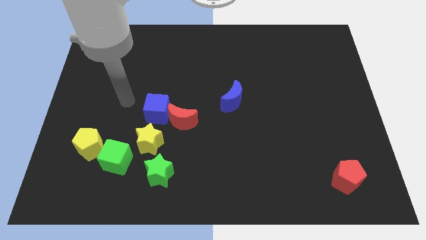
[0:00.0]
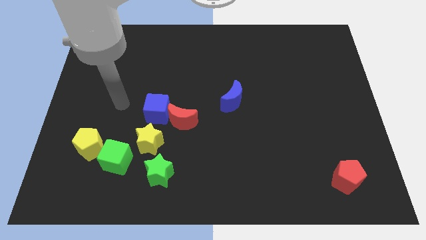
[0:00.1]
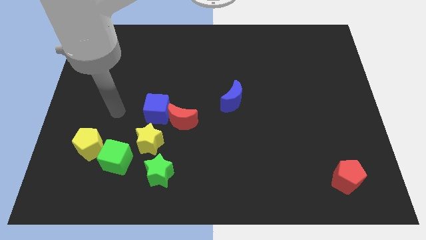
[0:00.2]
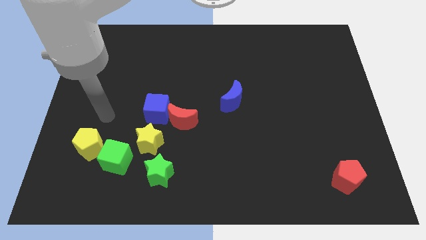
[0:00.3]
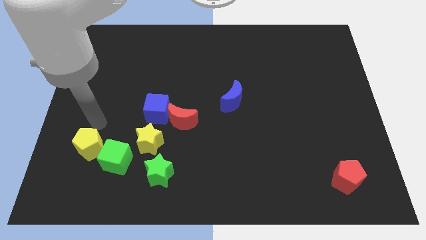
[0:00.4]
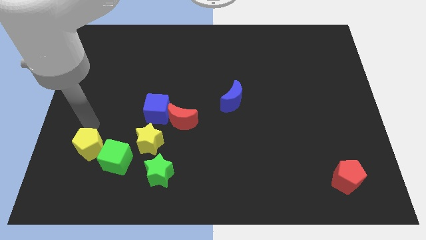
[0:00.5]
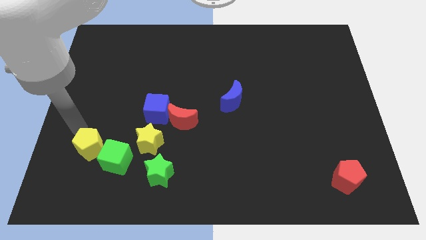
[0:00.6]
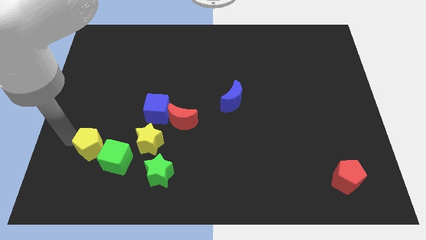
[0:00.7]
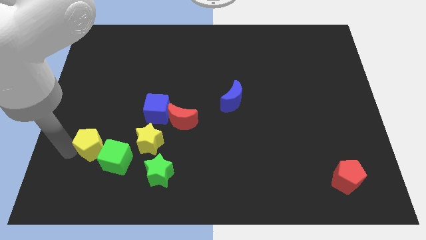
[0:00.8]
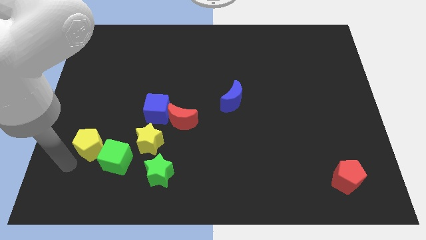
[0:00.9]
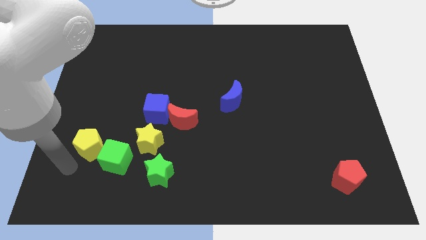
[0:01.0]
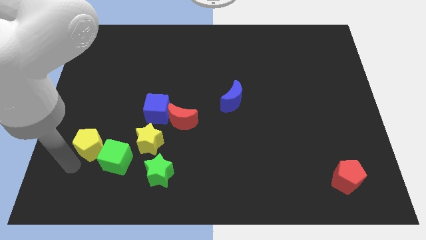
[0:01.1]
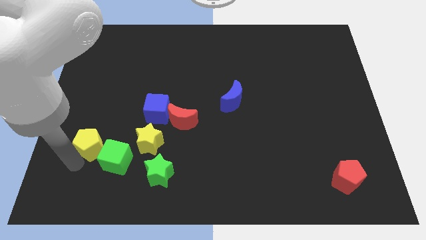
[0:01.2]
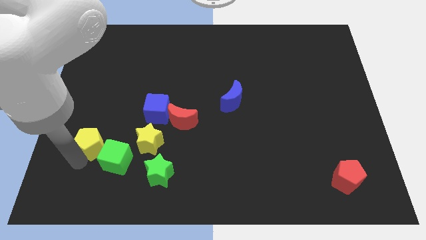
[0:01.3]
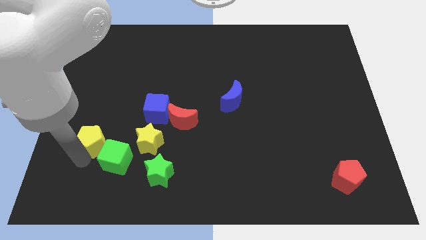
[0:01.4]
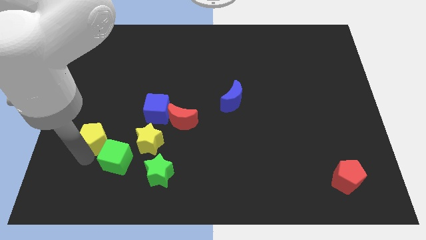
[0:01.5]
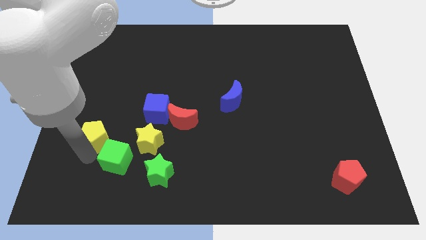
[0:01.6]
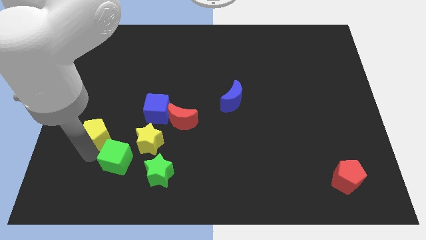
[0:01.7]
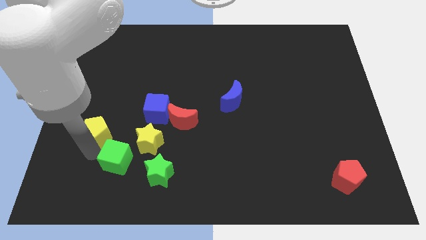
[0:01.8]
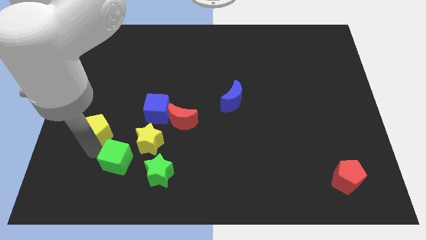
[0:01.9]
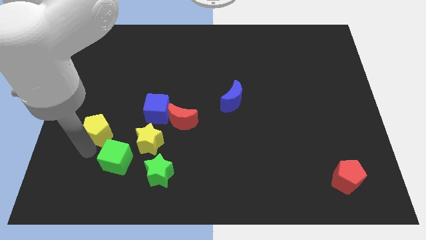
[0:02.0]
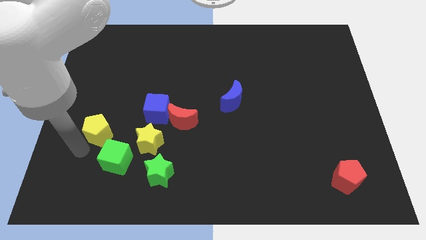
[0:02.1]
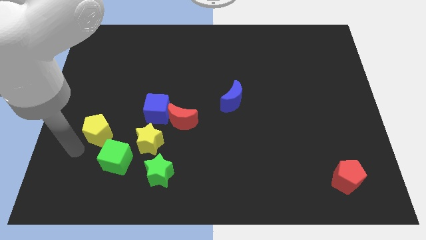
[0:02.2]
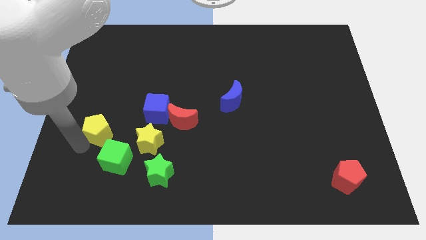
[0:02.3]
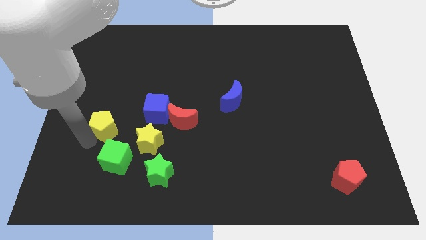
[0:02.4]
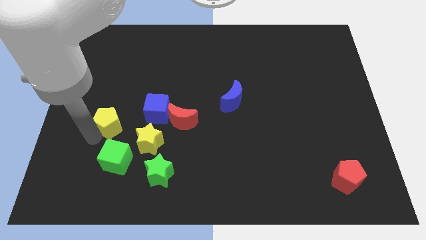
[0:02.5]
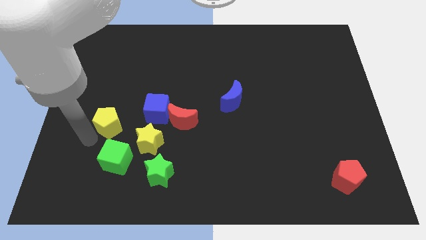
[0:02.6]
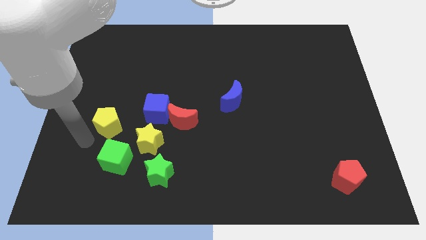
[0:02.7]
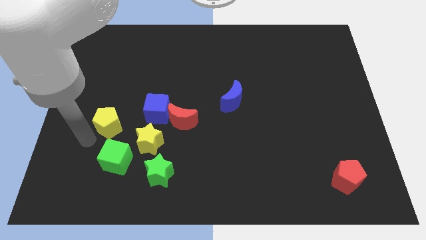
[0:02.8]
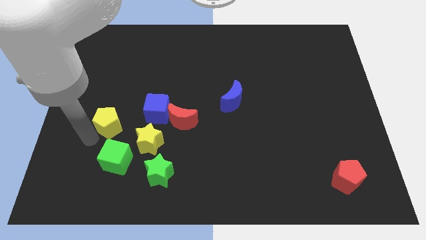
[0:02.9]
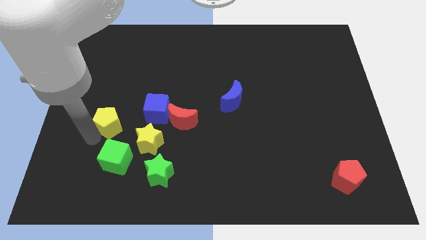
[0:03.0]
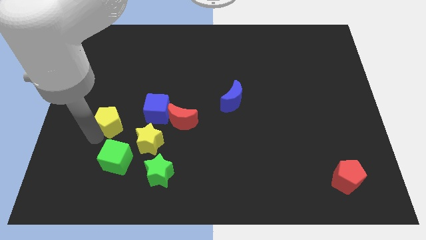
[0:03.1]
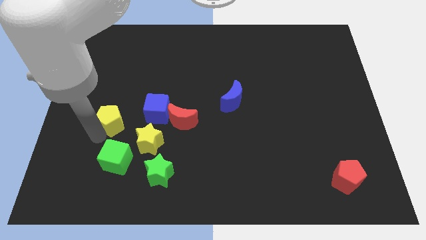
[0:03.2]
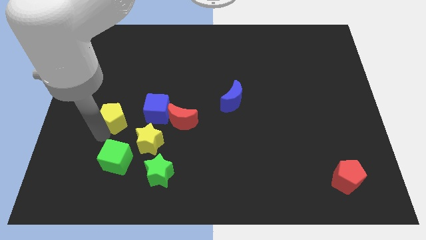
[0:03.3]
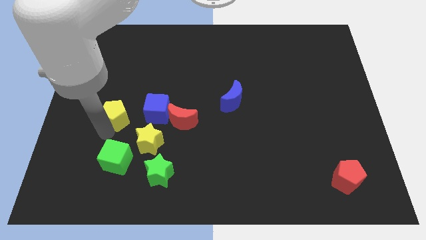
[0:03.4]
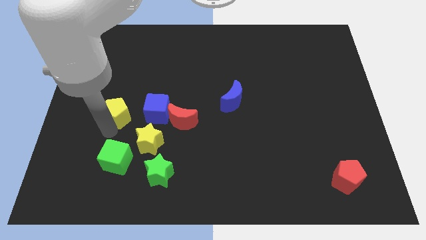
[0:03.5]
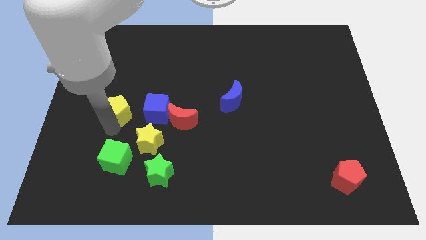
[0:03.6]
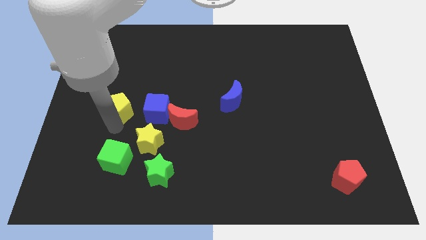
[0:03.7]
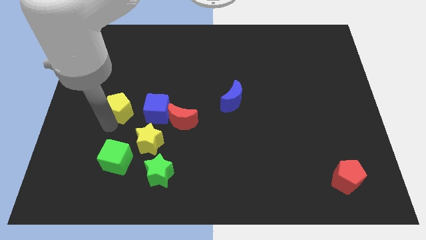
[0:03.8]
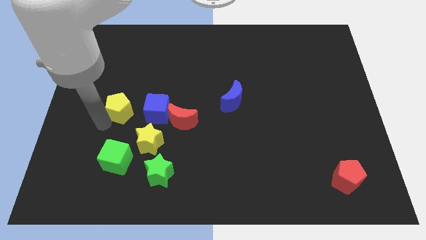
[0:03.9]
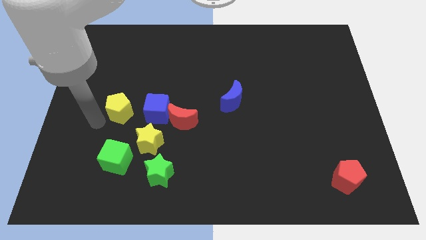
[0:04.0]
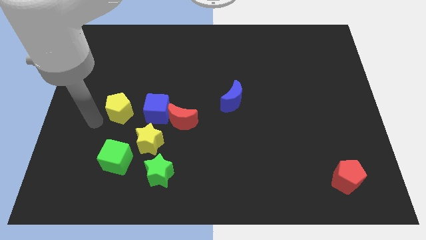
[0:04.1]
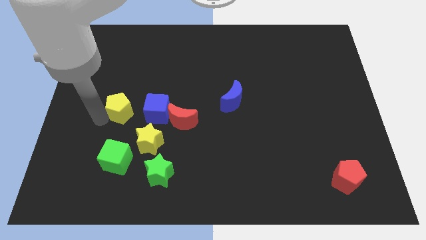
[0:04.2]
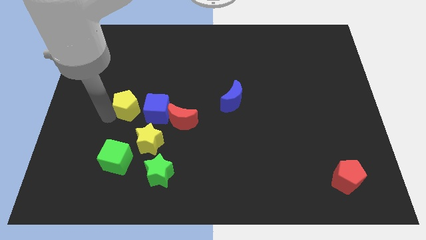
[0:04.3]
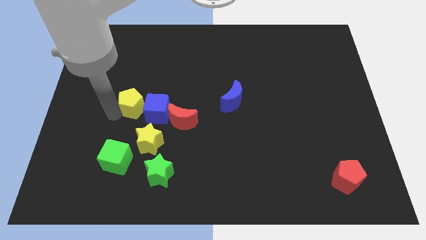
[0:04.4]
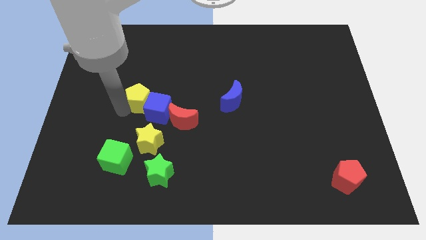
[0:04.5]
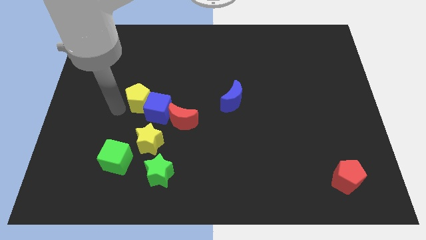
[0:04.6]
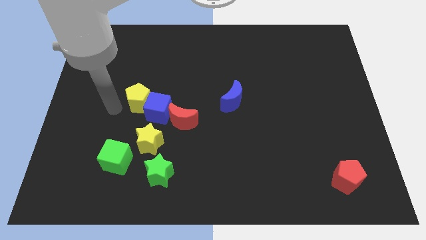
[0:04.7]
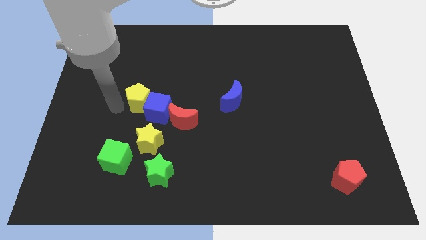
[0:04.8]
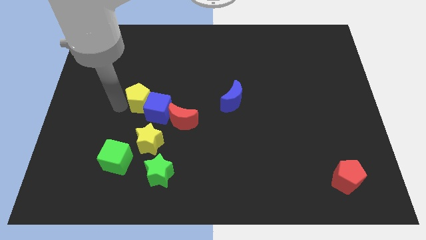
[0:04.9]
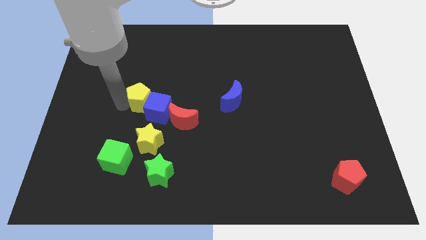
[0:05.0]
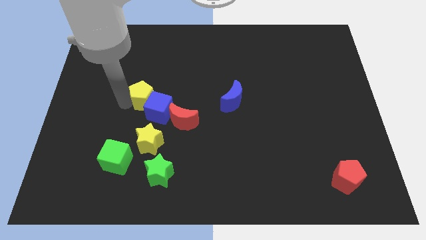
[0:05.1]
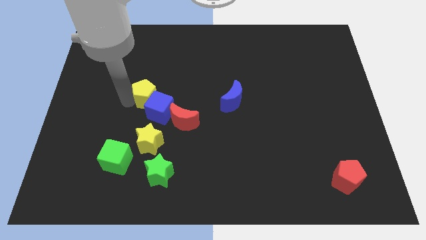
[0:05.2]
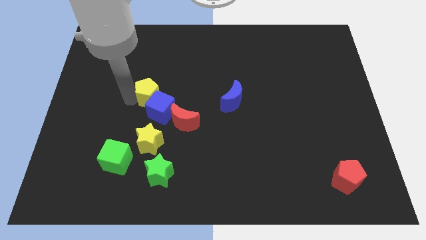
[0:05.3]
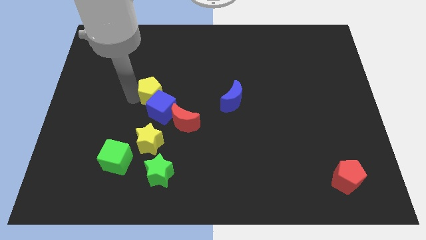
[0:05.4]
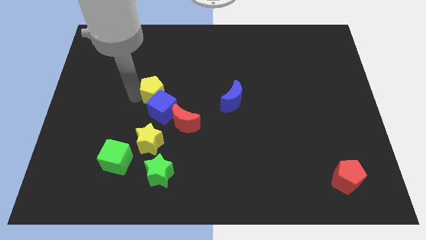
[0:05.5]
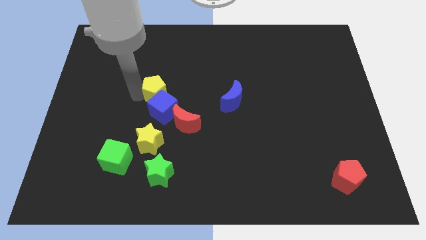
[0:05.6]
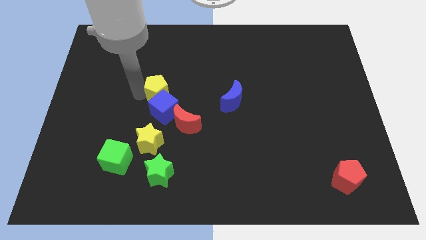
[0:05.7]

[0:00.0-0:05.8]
push the yellow pentagon up and right diagonally

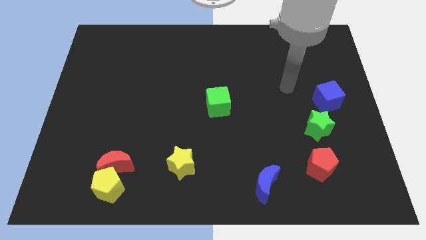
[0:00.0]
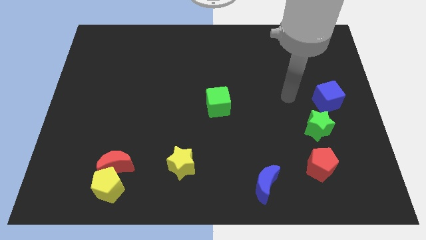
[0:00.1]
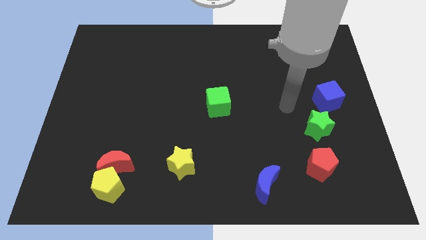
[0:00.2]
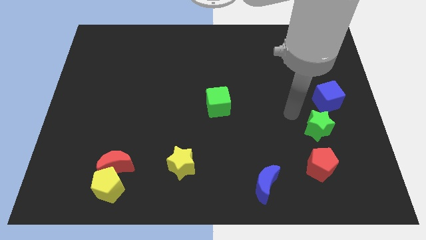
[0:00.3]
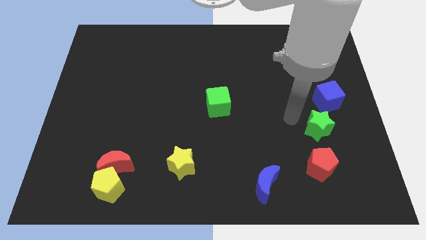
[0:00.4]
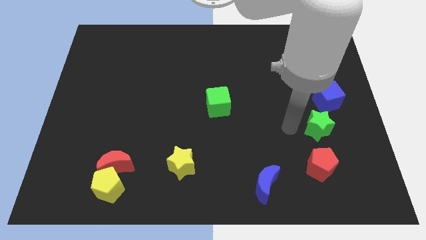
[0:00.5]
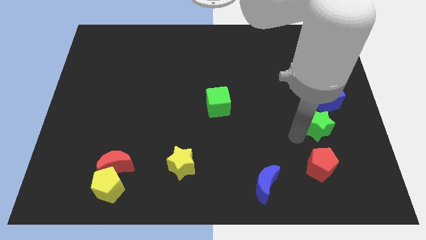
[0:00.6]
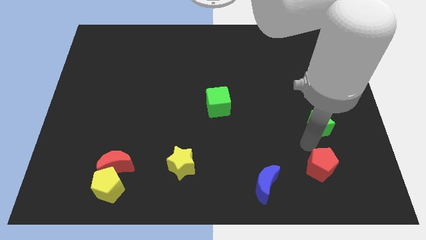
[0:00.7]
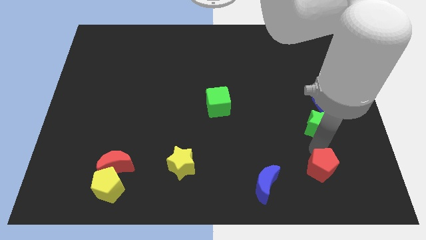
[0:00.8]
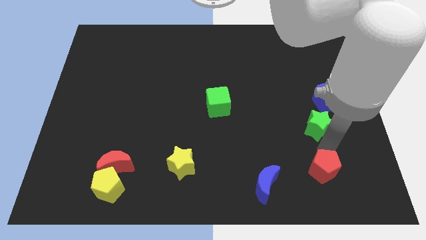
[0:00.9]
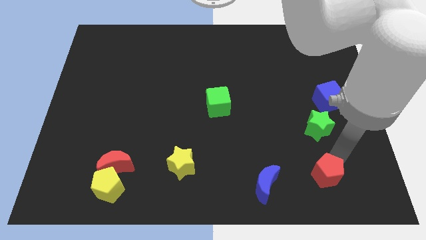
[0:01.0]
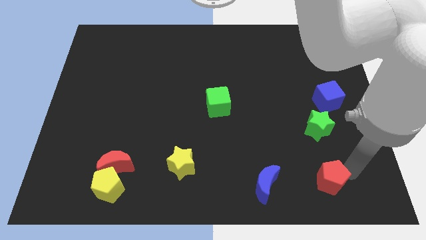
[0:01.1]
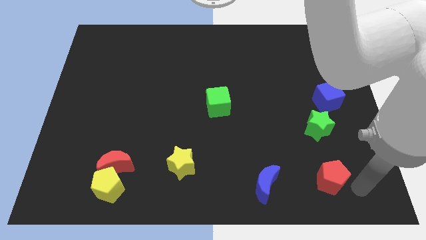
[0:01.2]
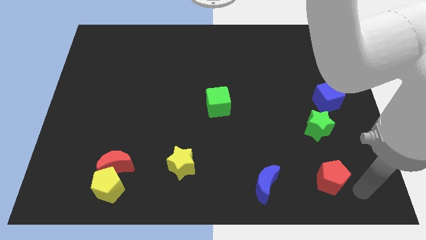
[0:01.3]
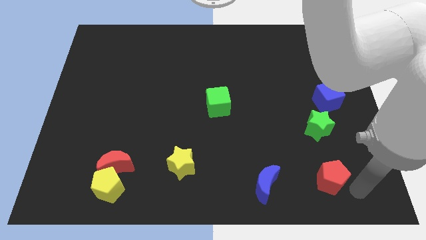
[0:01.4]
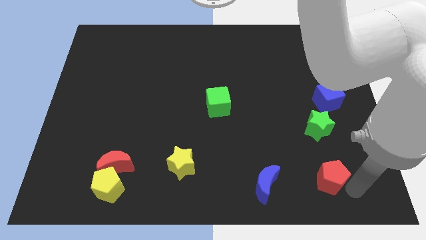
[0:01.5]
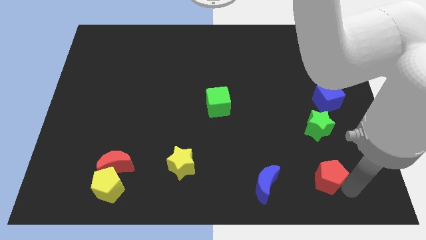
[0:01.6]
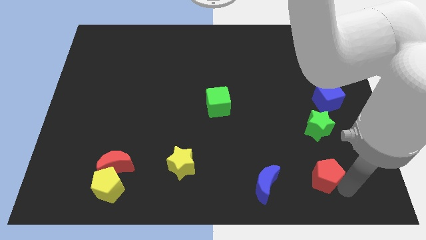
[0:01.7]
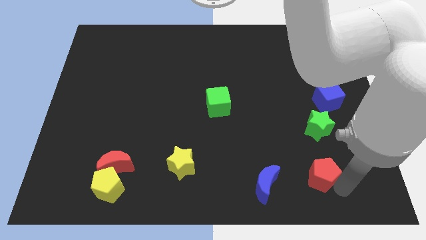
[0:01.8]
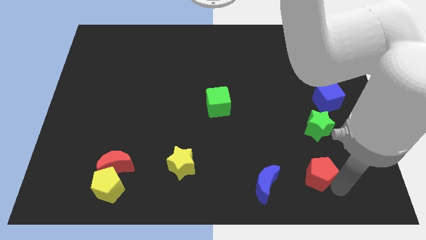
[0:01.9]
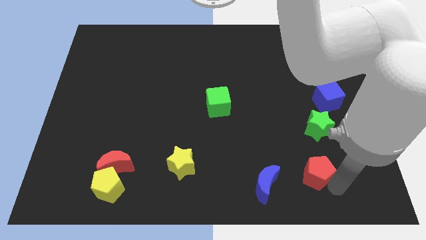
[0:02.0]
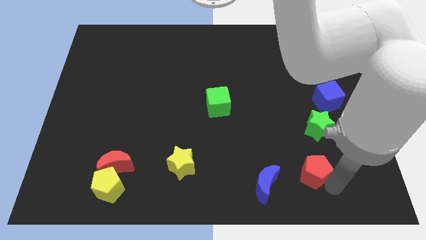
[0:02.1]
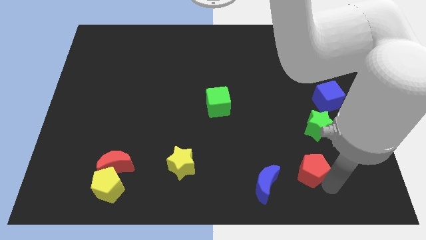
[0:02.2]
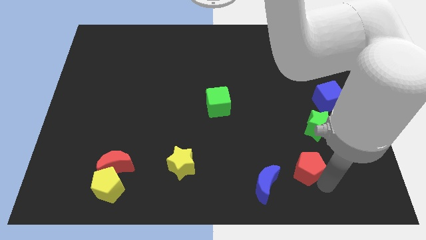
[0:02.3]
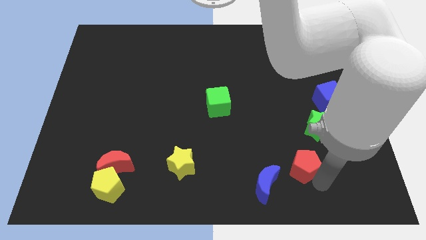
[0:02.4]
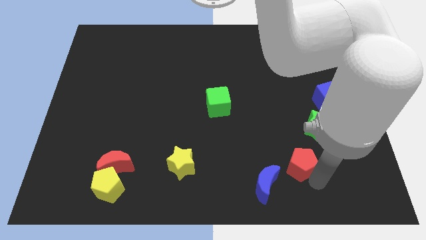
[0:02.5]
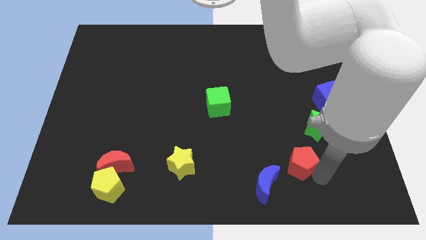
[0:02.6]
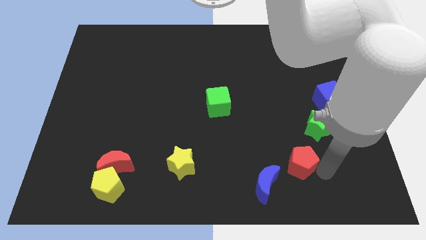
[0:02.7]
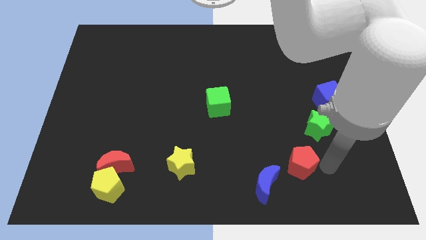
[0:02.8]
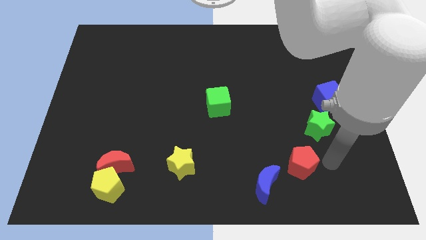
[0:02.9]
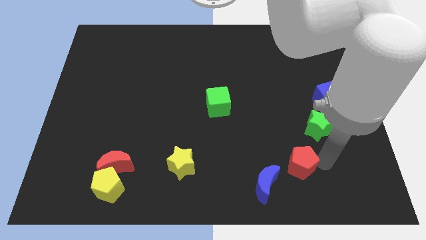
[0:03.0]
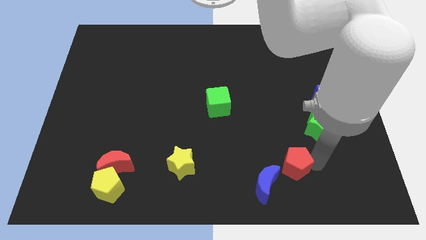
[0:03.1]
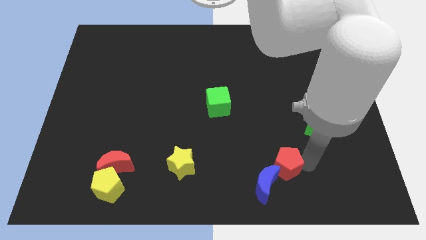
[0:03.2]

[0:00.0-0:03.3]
slightly push the red pentagon left
